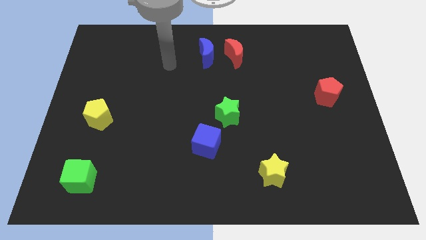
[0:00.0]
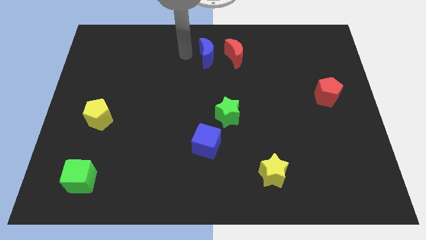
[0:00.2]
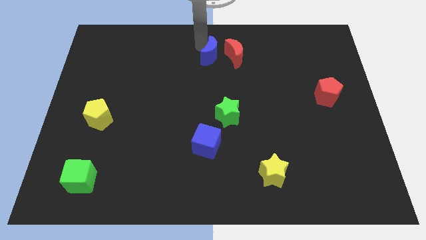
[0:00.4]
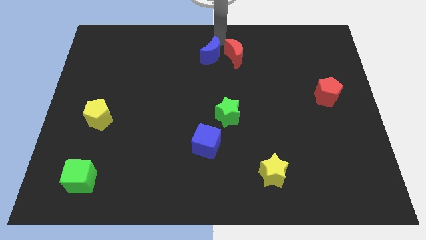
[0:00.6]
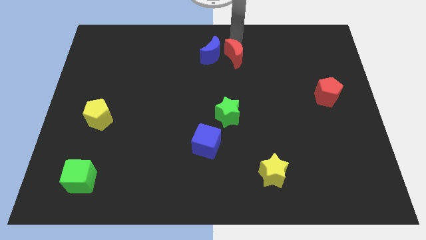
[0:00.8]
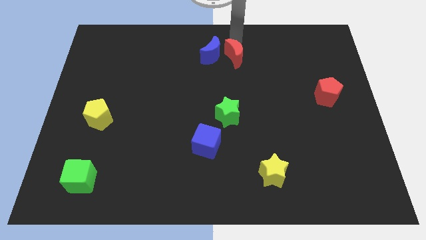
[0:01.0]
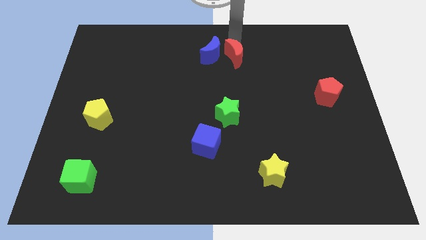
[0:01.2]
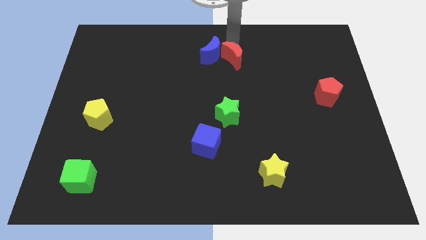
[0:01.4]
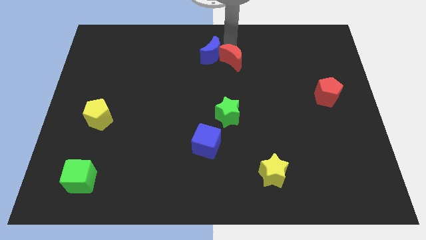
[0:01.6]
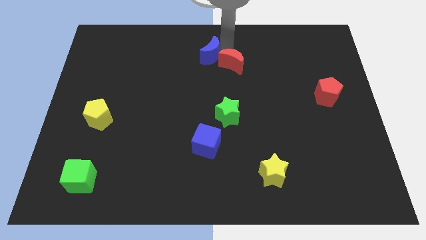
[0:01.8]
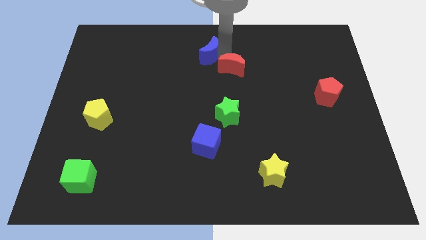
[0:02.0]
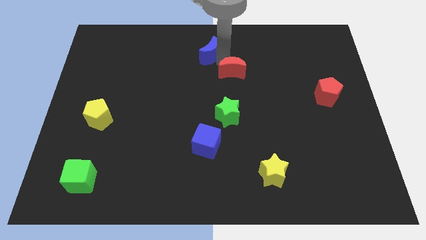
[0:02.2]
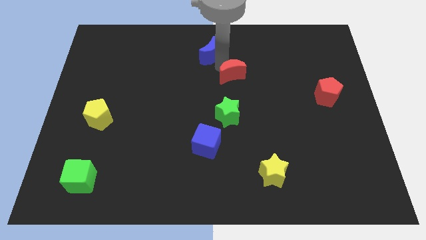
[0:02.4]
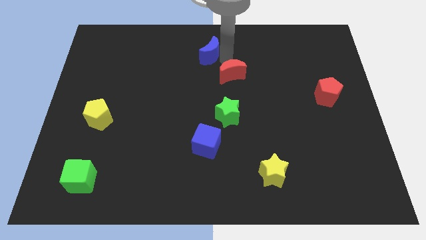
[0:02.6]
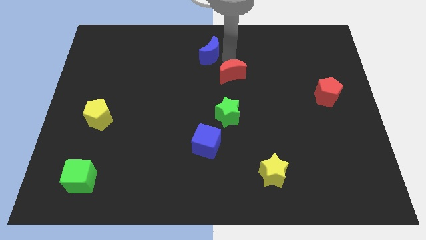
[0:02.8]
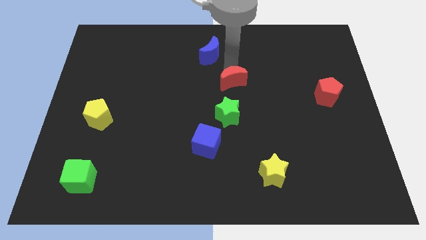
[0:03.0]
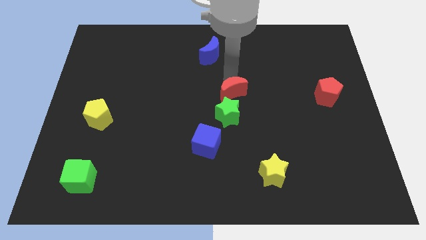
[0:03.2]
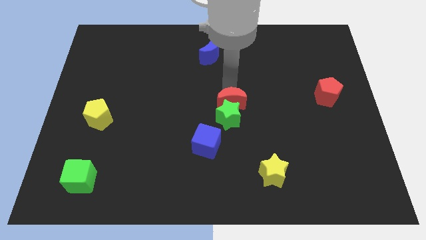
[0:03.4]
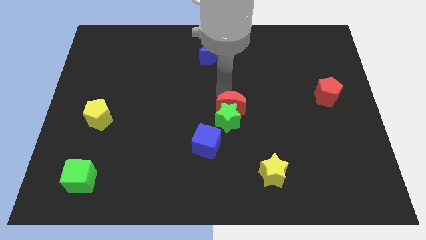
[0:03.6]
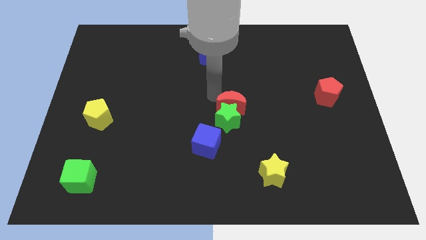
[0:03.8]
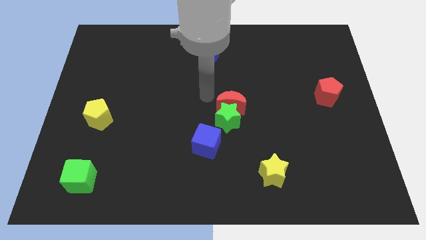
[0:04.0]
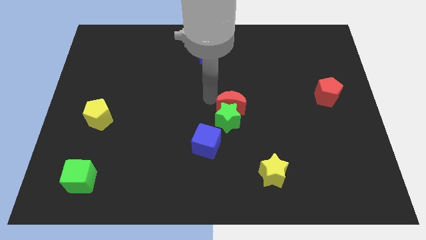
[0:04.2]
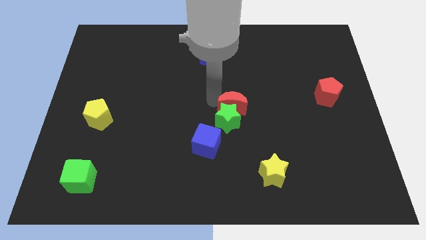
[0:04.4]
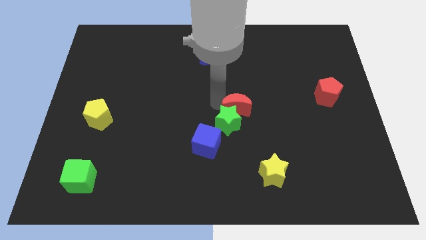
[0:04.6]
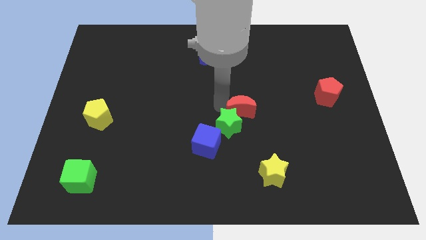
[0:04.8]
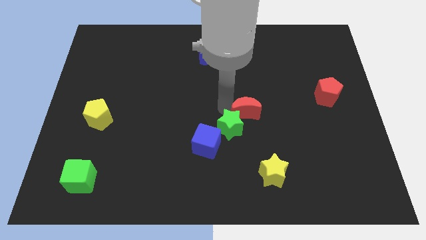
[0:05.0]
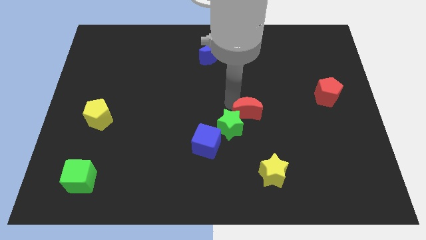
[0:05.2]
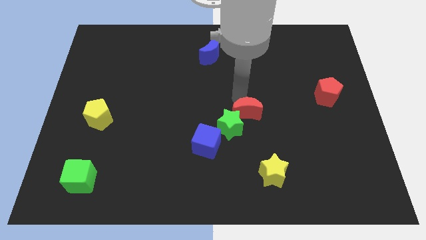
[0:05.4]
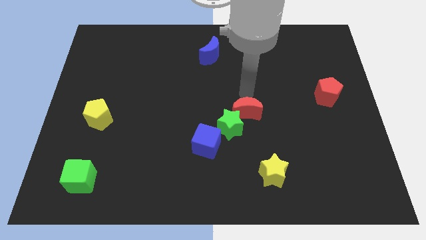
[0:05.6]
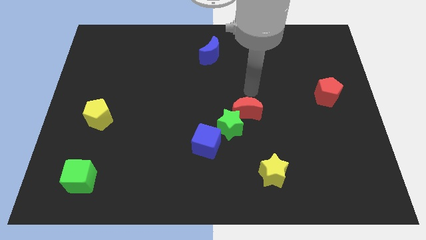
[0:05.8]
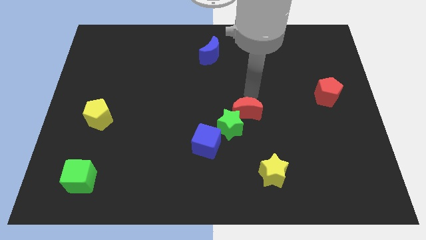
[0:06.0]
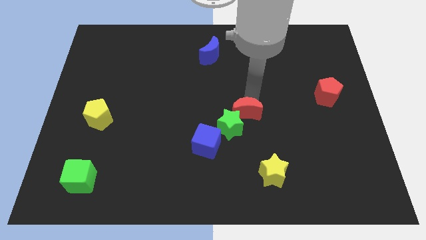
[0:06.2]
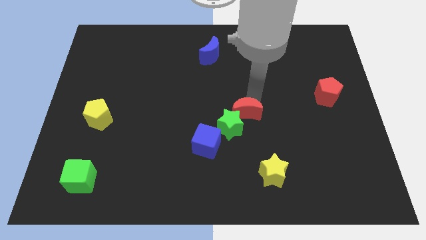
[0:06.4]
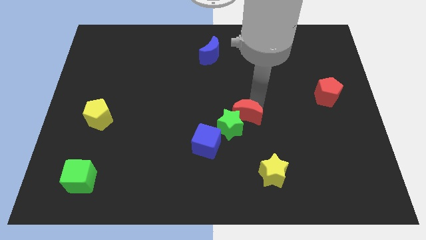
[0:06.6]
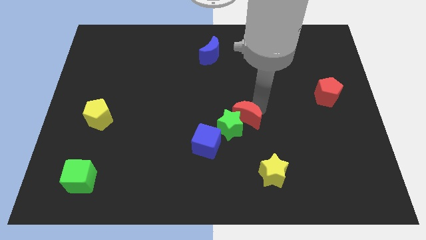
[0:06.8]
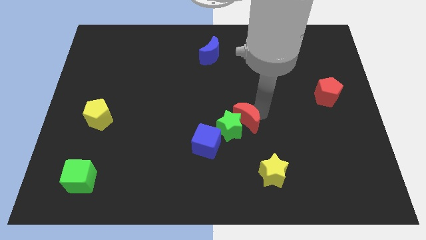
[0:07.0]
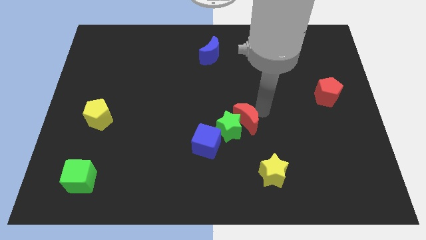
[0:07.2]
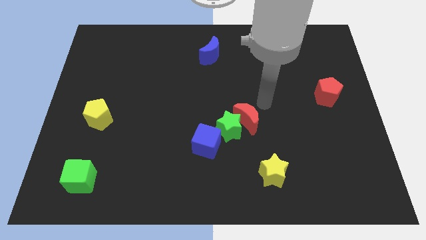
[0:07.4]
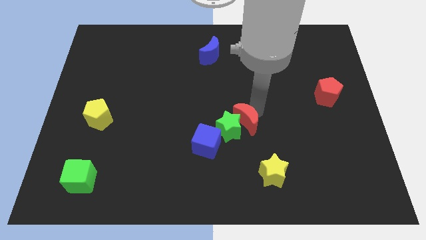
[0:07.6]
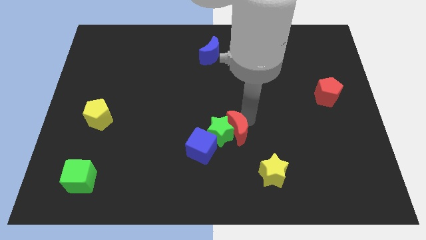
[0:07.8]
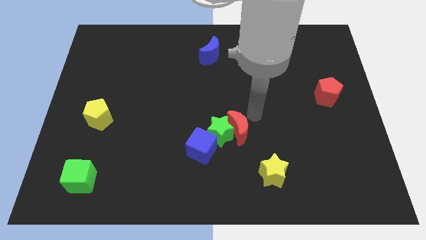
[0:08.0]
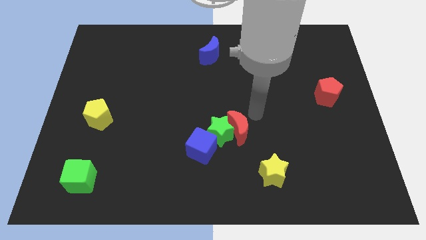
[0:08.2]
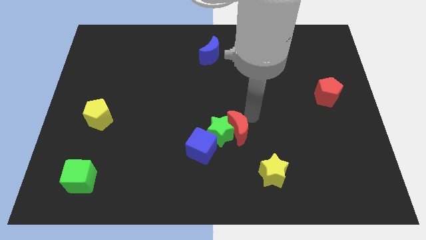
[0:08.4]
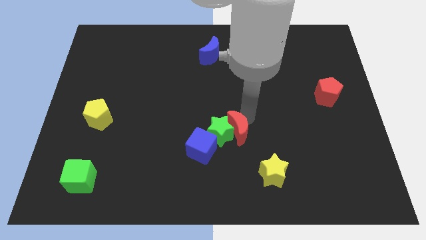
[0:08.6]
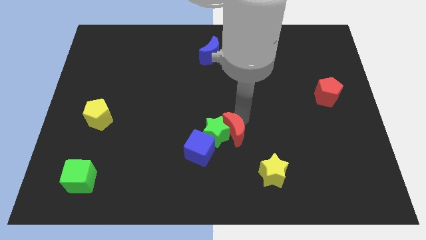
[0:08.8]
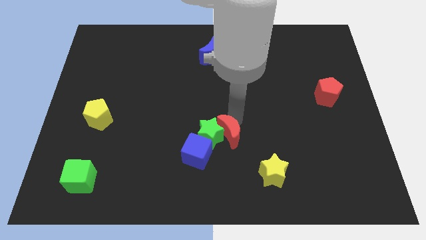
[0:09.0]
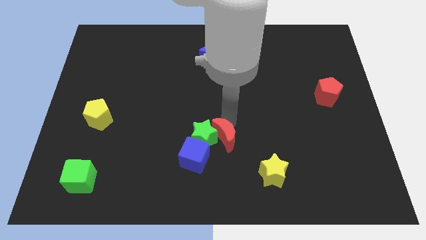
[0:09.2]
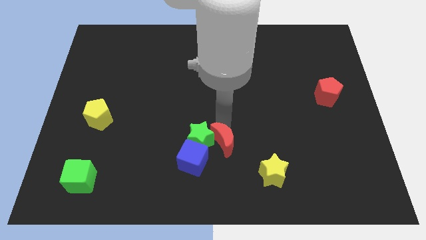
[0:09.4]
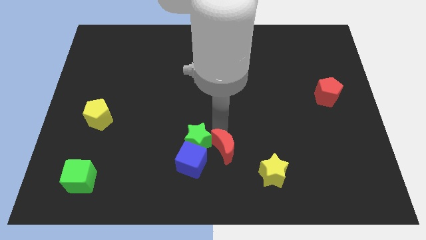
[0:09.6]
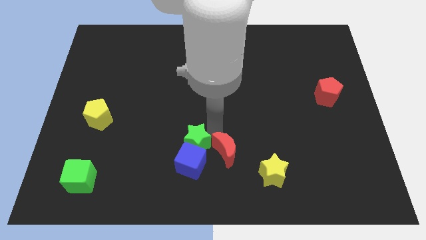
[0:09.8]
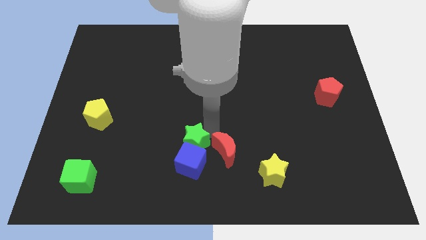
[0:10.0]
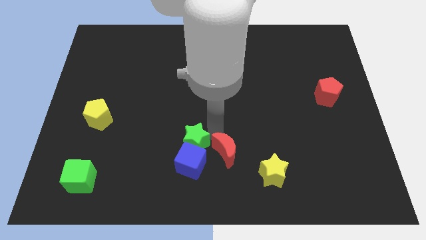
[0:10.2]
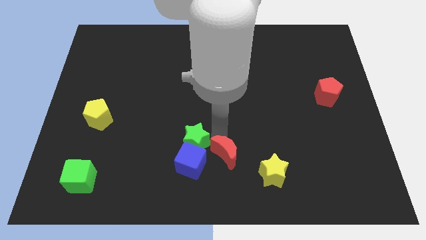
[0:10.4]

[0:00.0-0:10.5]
move the red moon to the bottom

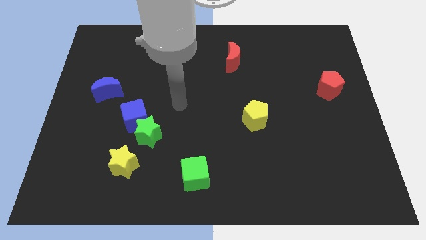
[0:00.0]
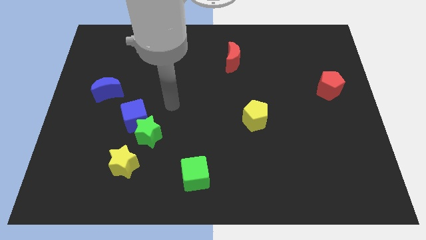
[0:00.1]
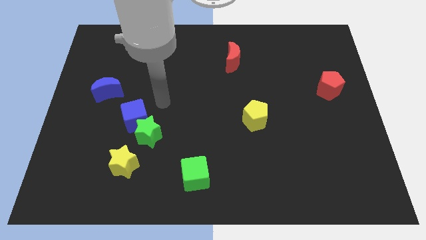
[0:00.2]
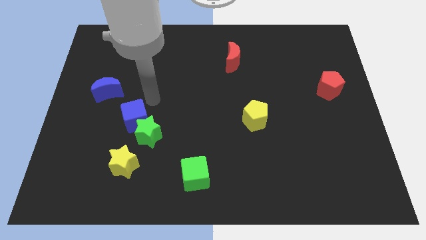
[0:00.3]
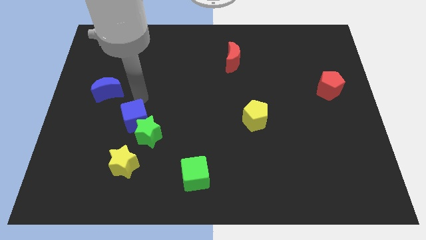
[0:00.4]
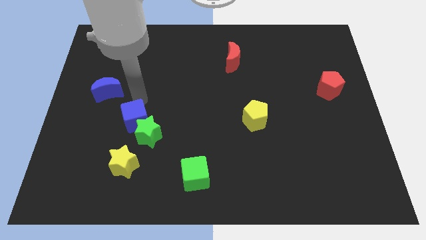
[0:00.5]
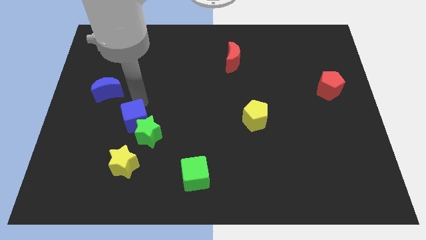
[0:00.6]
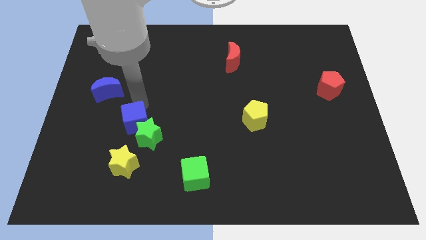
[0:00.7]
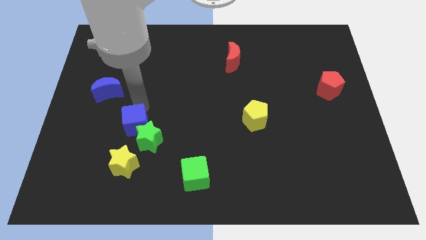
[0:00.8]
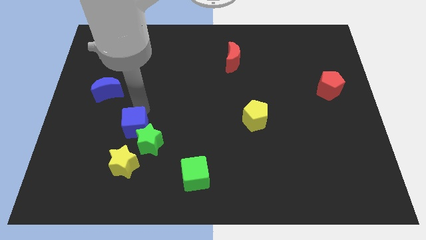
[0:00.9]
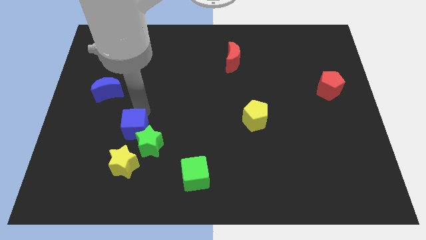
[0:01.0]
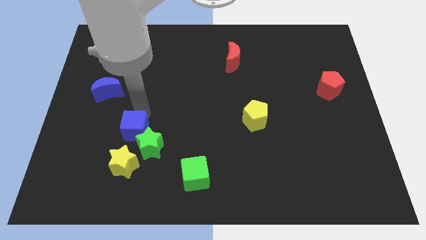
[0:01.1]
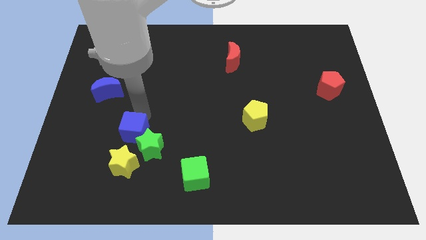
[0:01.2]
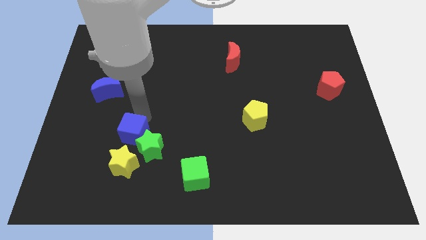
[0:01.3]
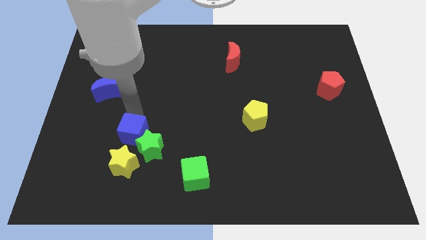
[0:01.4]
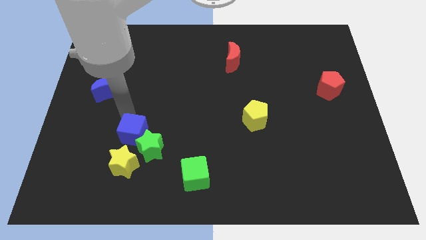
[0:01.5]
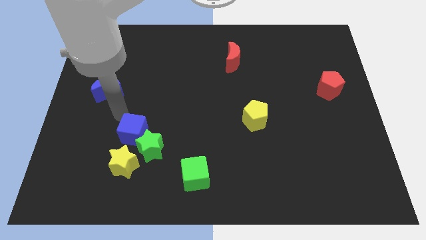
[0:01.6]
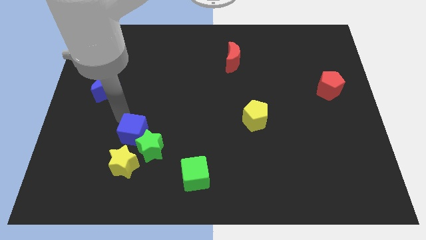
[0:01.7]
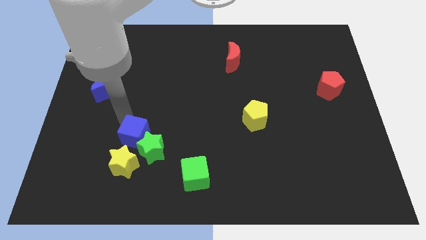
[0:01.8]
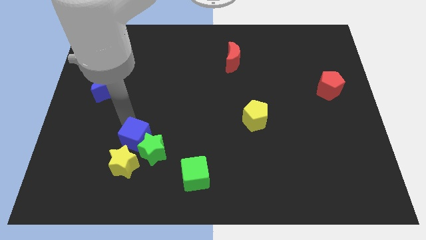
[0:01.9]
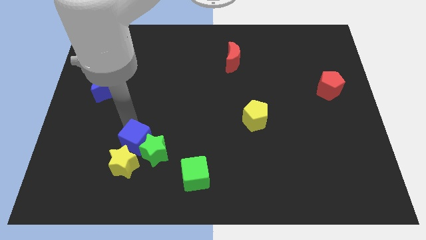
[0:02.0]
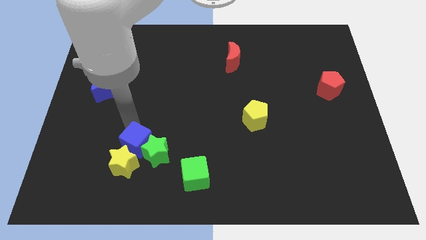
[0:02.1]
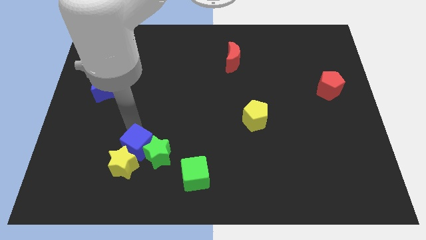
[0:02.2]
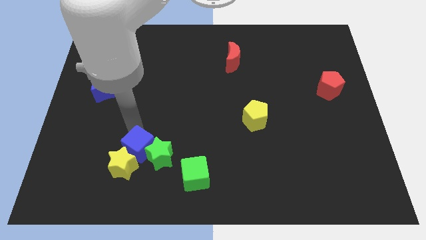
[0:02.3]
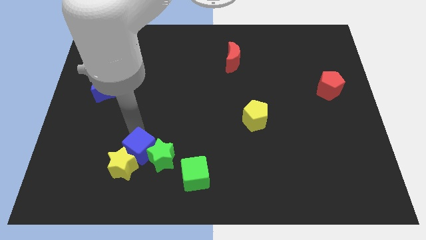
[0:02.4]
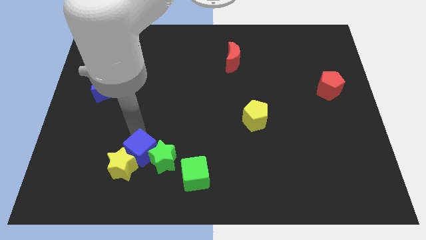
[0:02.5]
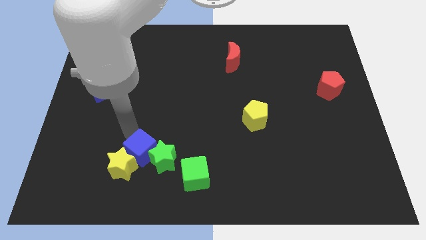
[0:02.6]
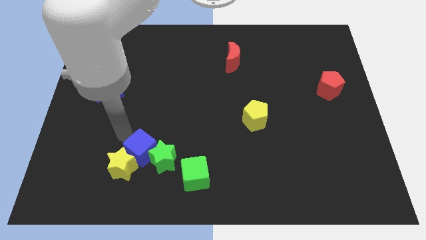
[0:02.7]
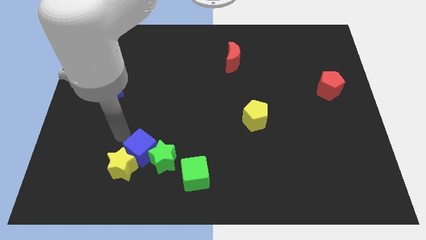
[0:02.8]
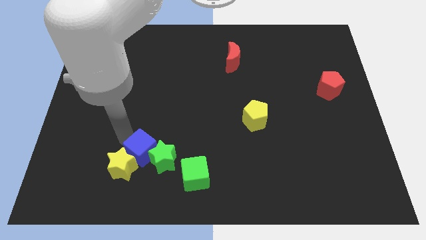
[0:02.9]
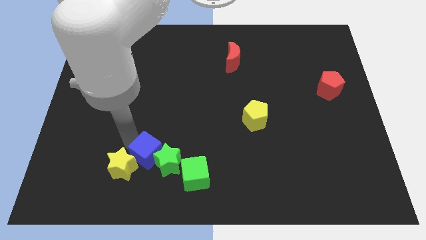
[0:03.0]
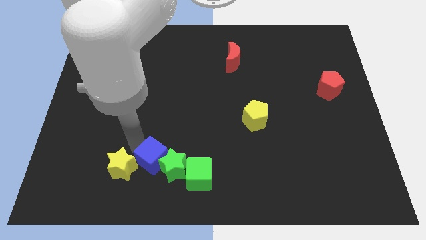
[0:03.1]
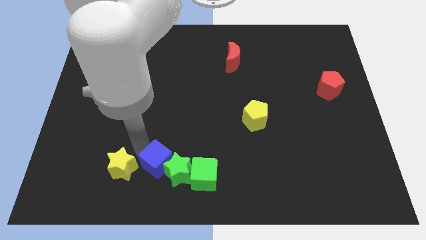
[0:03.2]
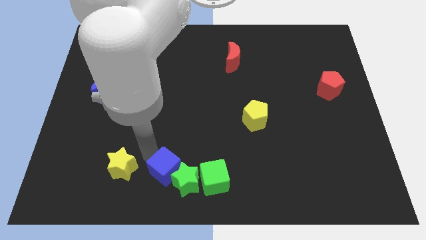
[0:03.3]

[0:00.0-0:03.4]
put the blue cube to the bottom side
